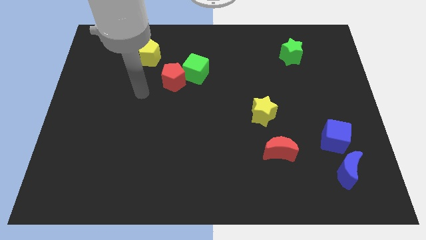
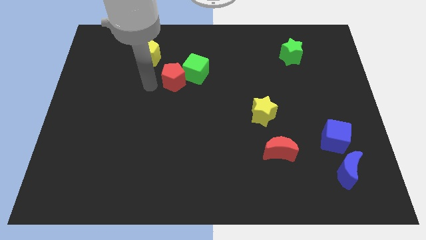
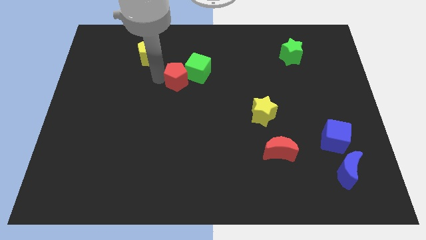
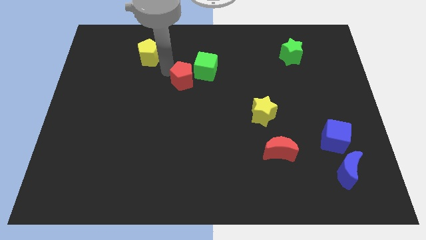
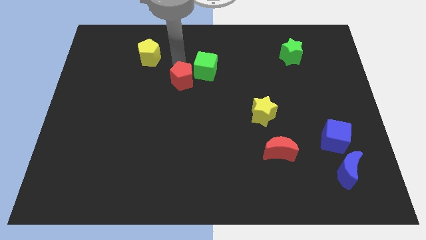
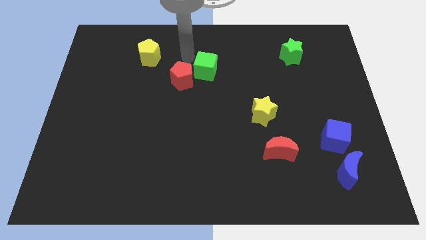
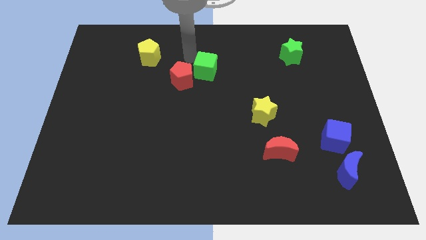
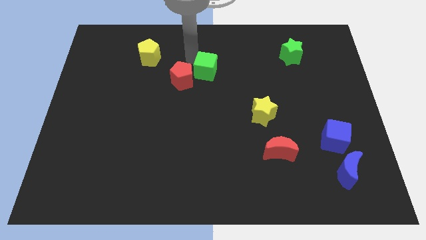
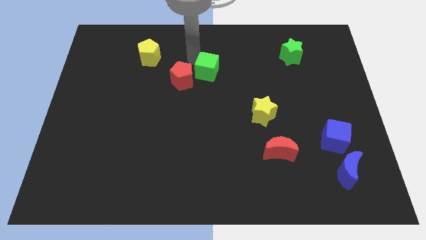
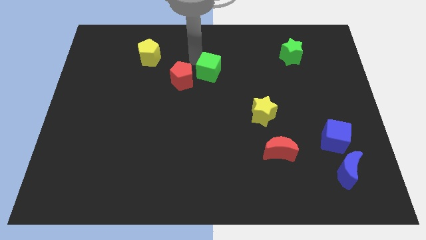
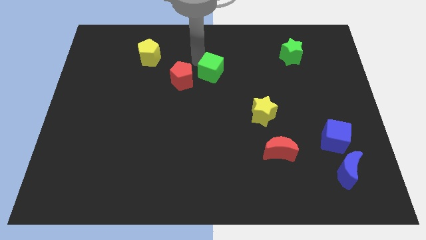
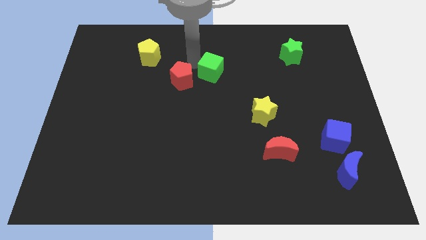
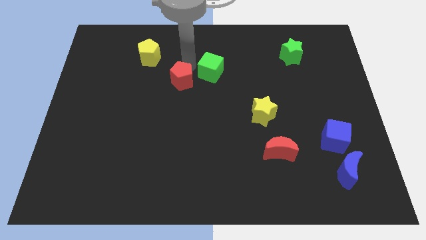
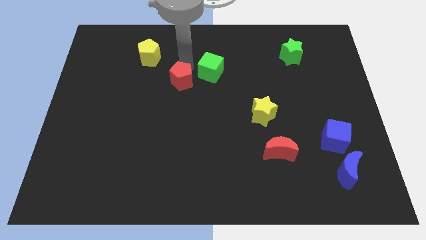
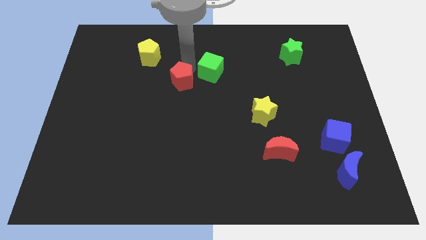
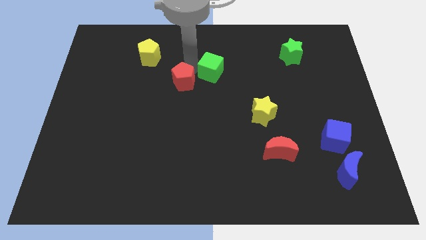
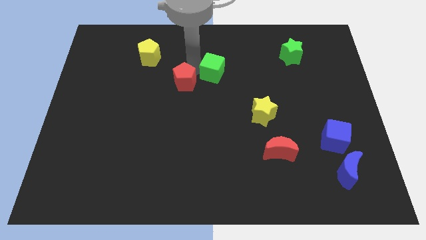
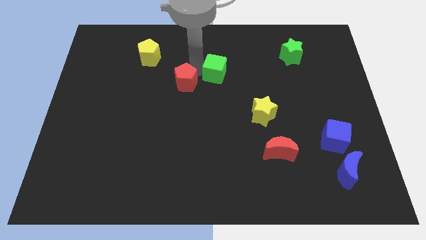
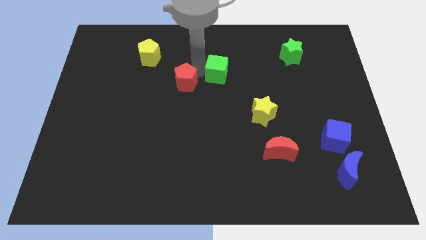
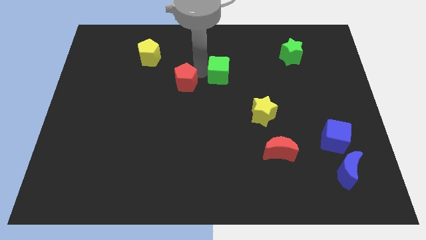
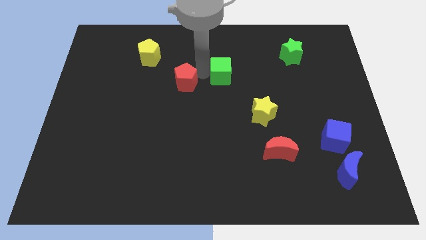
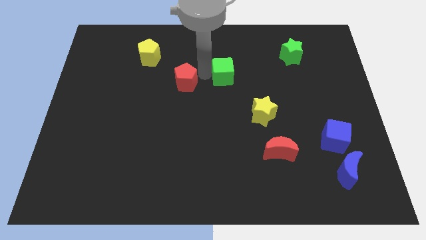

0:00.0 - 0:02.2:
move the green cube to the right a little

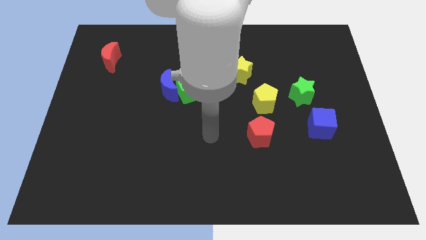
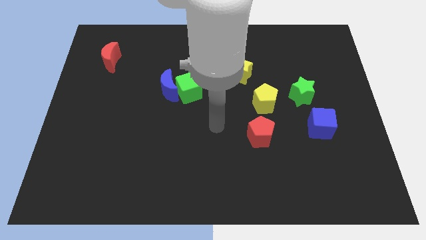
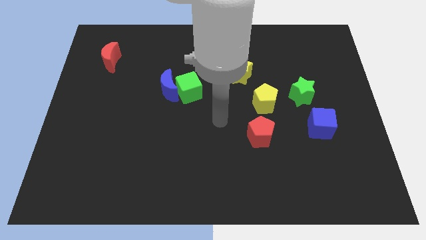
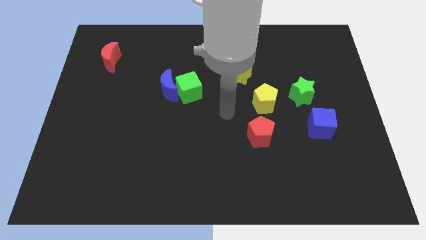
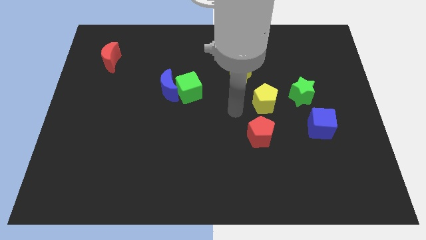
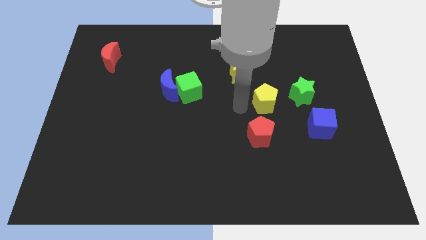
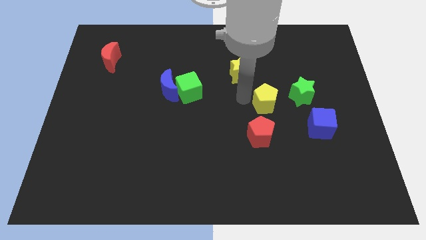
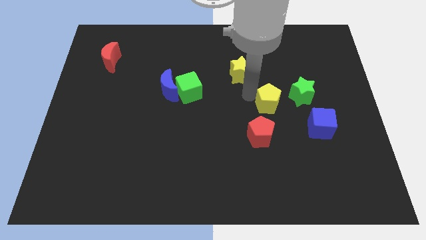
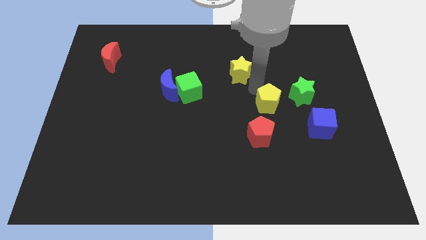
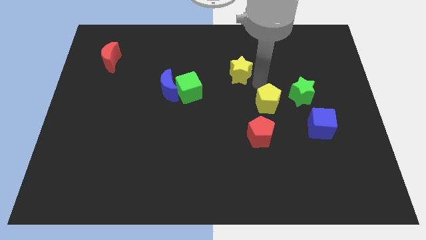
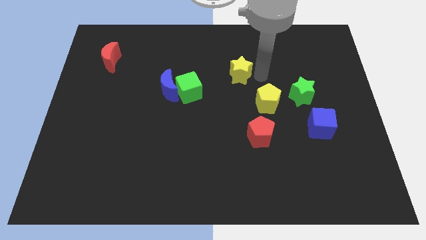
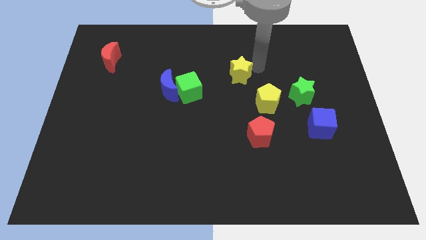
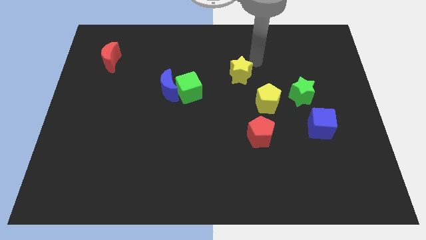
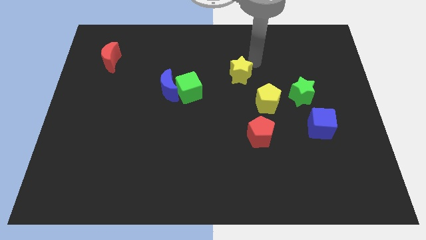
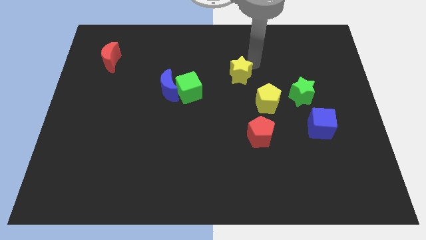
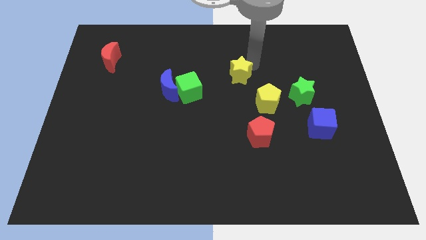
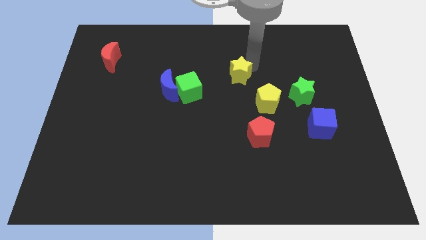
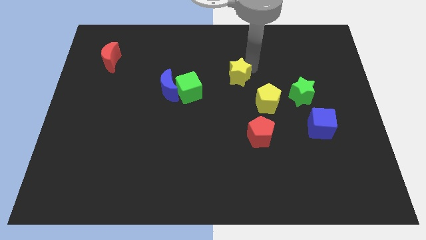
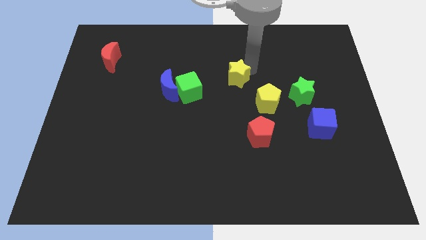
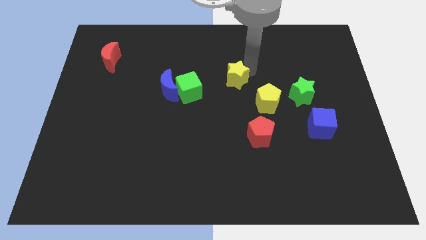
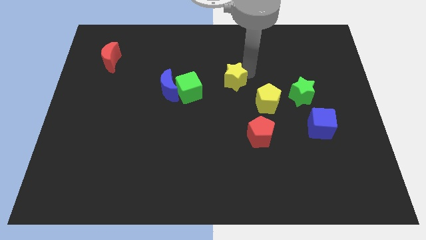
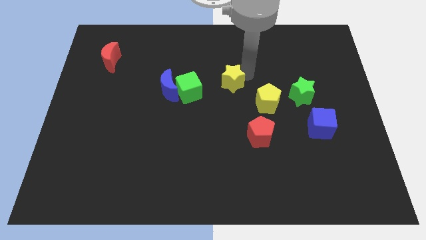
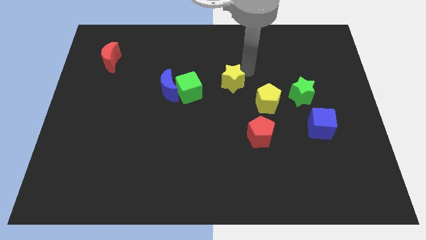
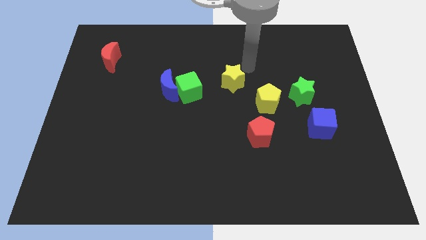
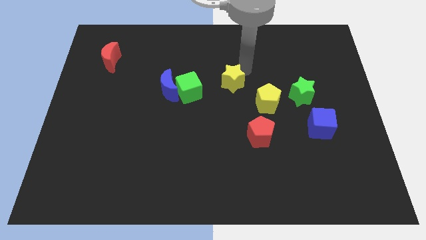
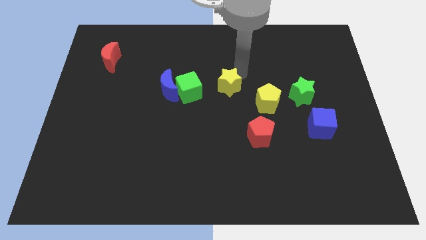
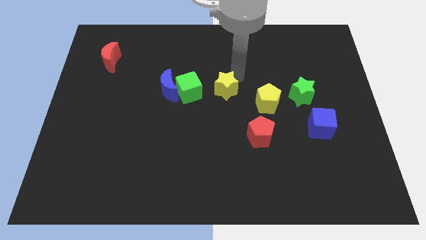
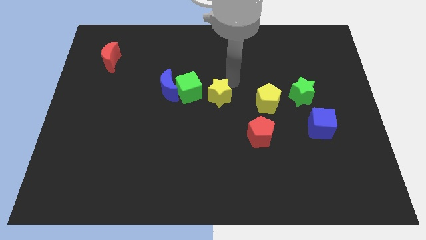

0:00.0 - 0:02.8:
push the yellow star slightly downwards and then to the left

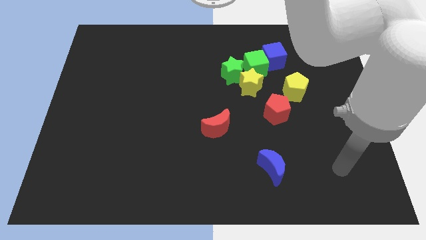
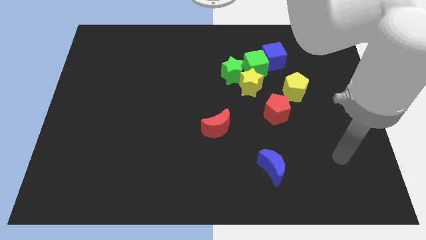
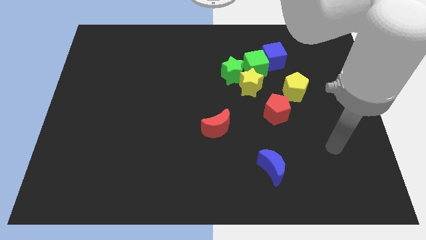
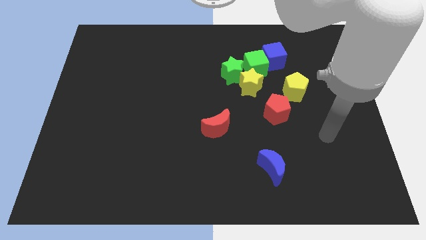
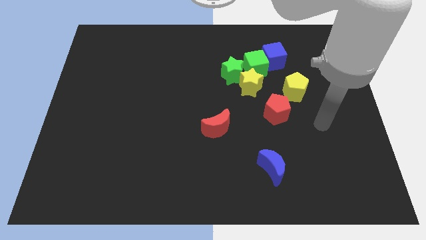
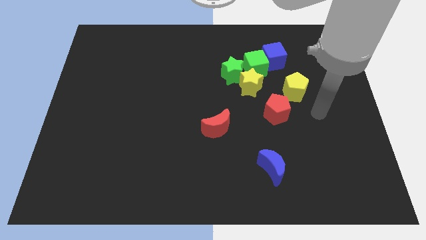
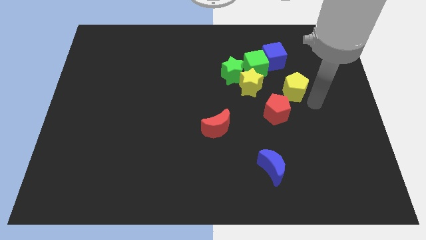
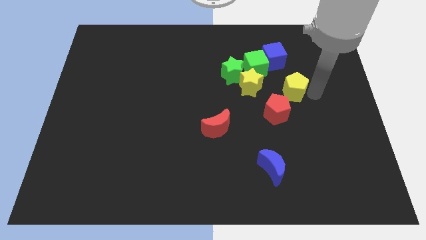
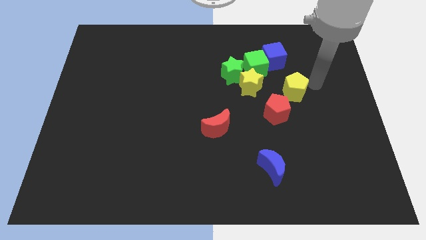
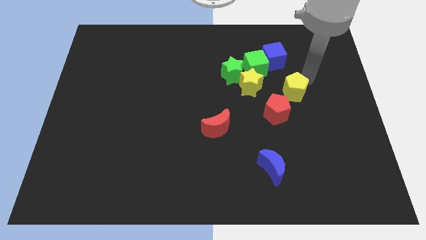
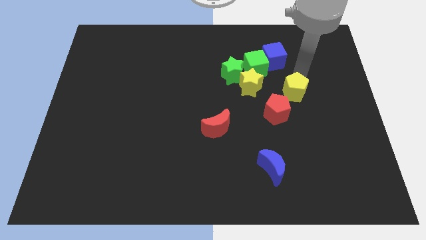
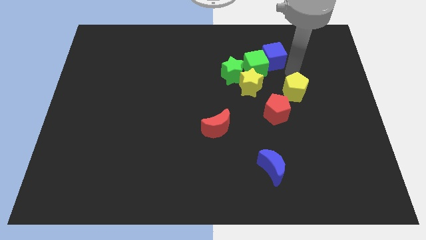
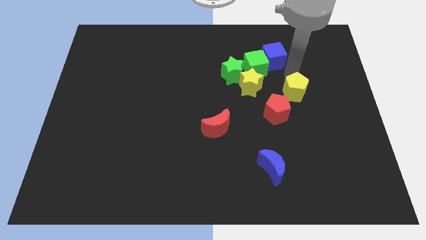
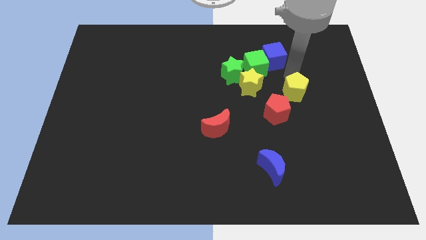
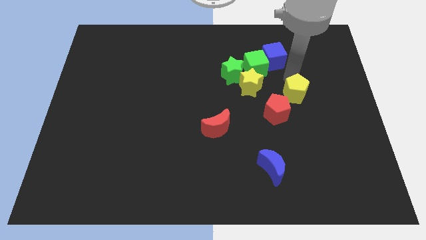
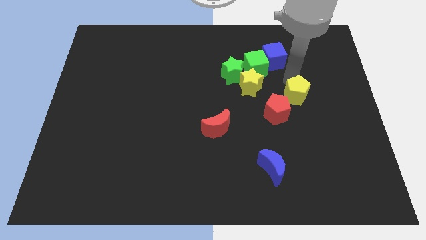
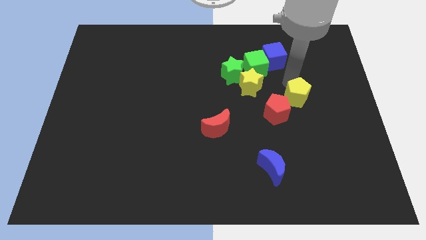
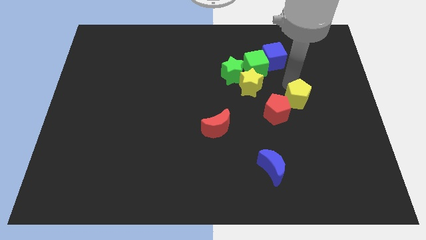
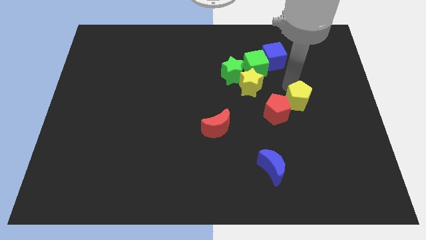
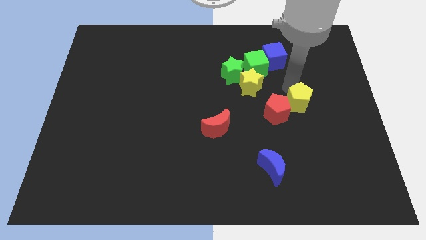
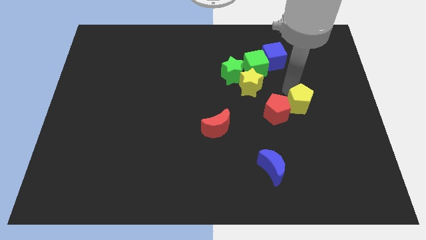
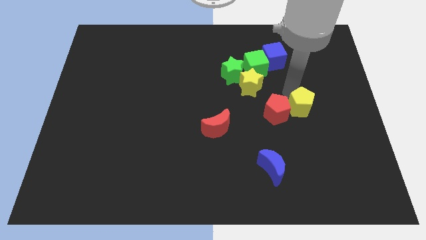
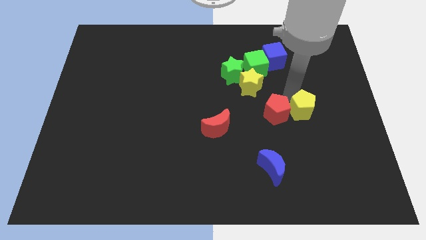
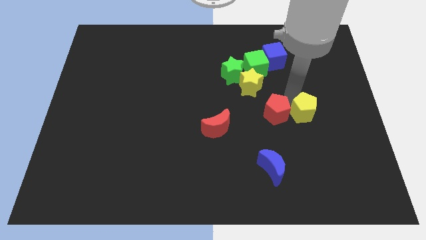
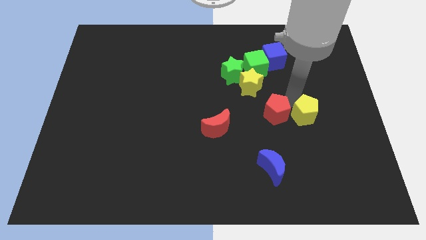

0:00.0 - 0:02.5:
slightly slide the yellow pentagon downwards

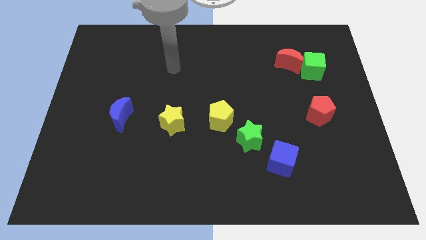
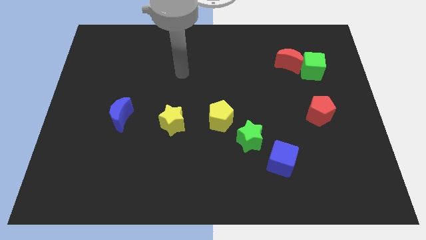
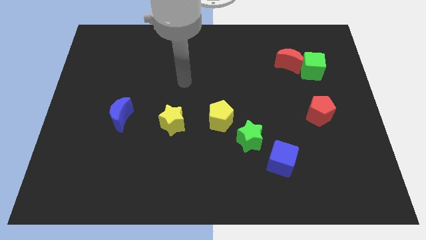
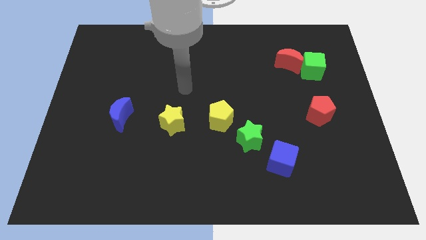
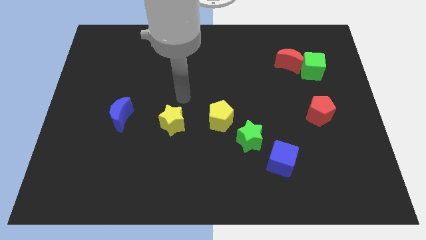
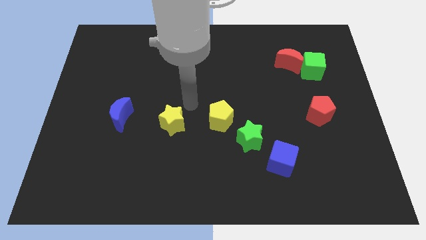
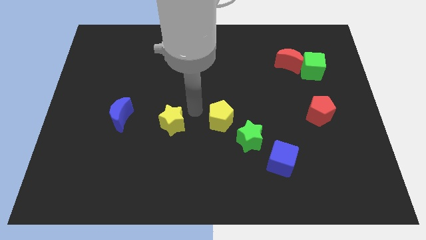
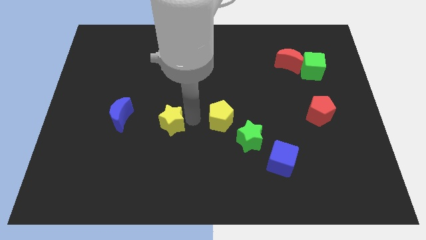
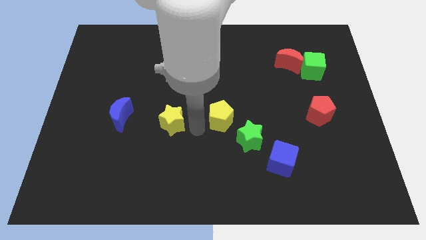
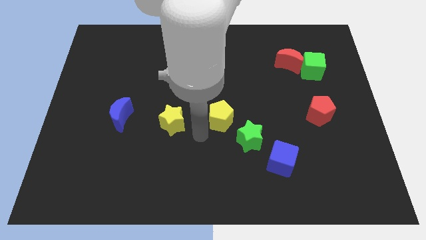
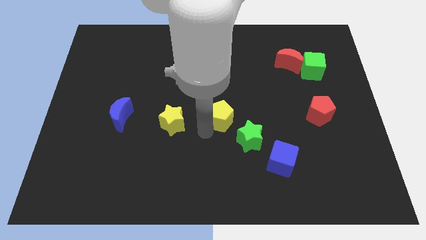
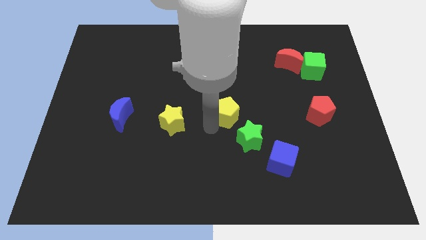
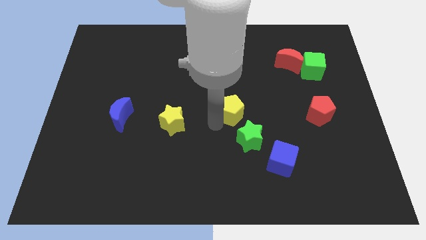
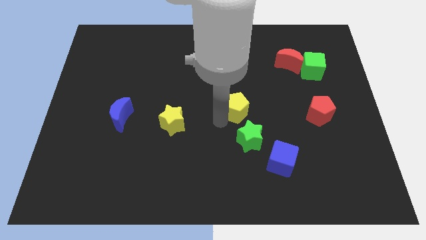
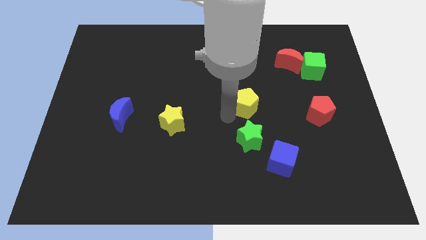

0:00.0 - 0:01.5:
slightly slide the yellow pentagon diagonally upwards and to the right
